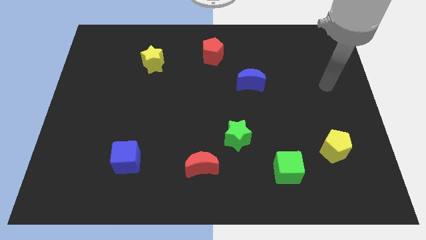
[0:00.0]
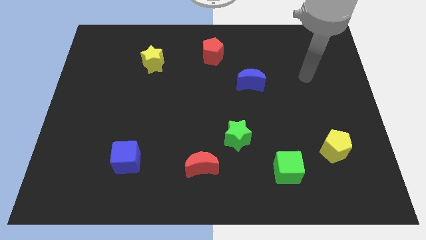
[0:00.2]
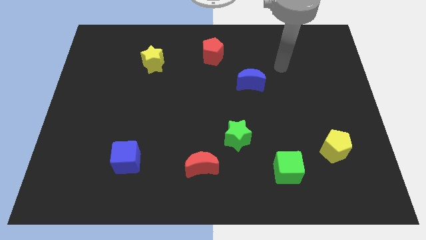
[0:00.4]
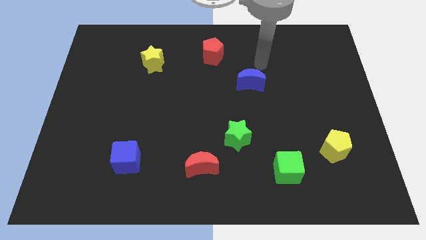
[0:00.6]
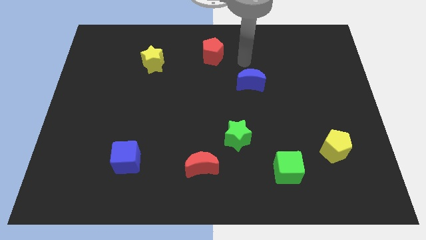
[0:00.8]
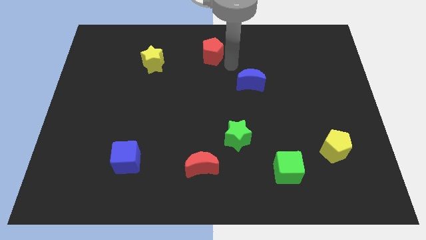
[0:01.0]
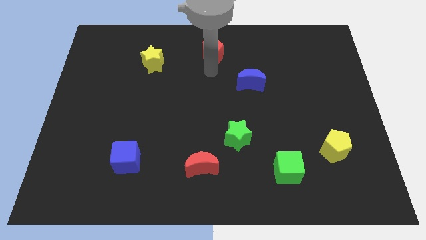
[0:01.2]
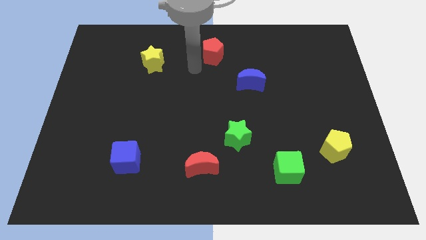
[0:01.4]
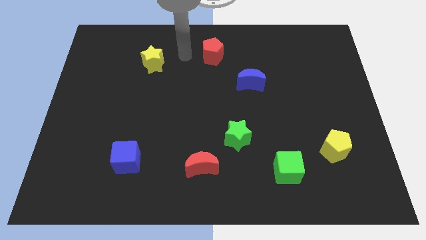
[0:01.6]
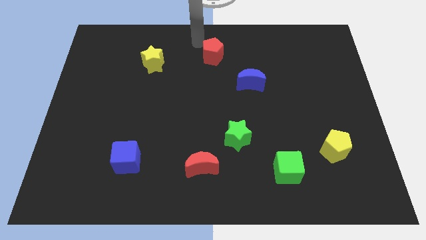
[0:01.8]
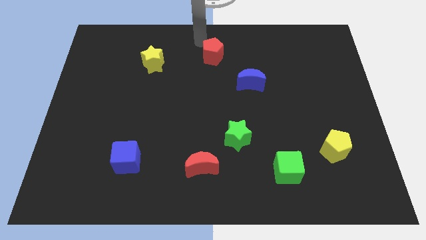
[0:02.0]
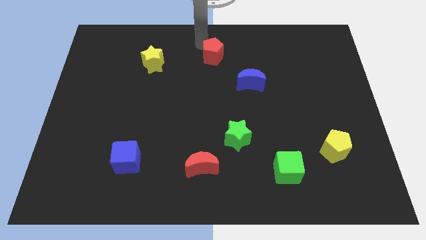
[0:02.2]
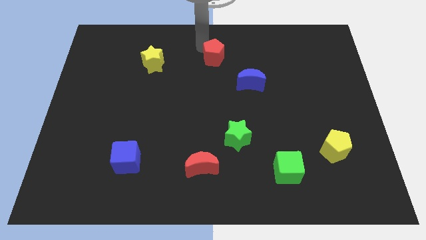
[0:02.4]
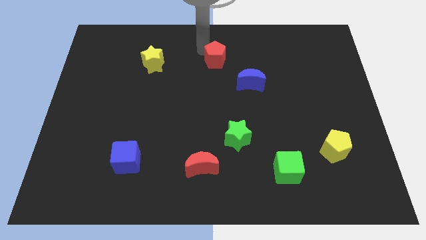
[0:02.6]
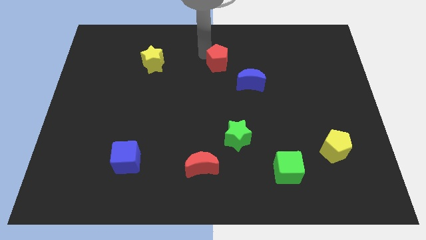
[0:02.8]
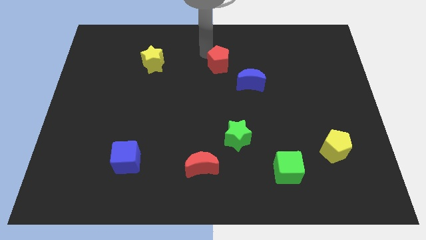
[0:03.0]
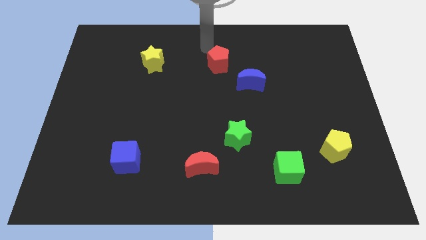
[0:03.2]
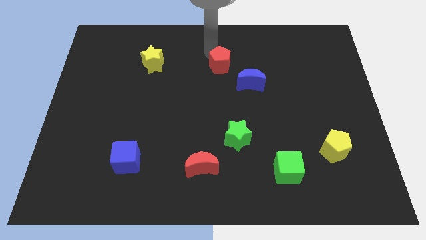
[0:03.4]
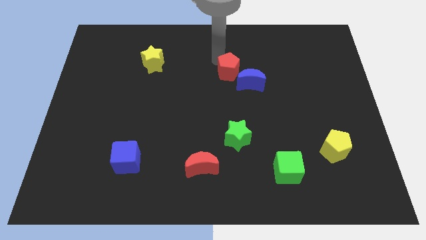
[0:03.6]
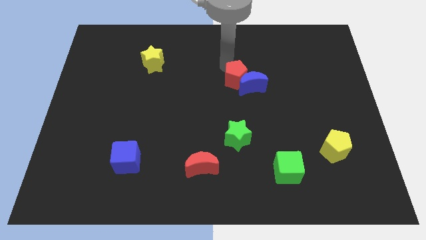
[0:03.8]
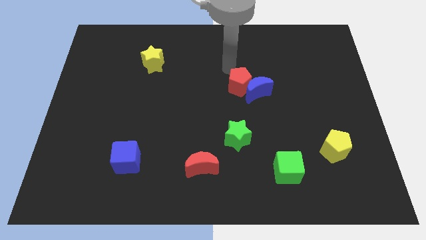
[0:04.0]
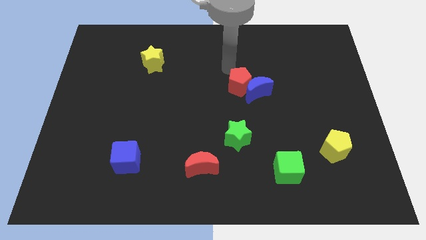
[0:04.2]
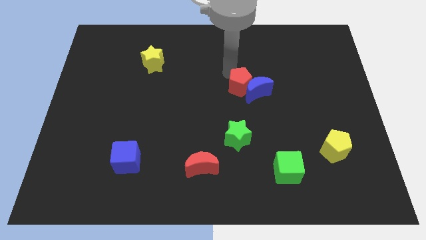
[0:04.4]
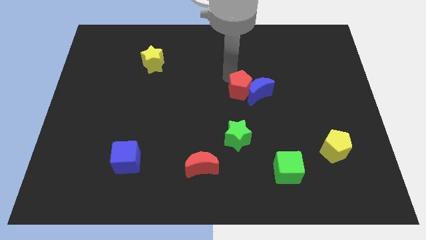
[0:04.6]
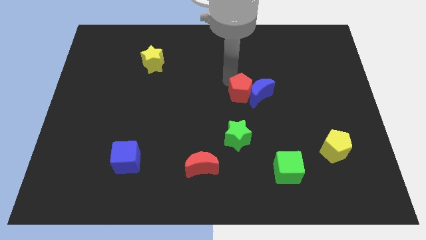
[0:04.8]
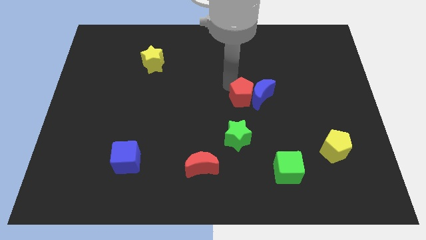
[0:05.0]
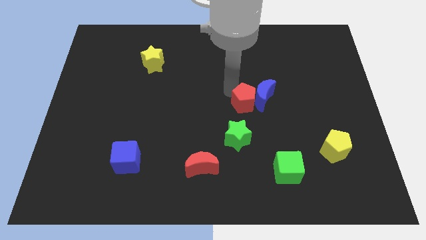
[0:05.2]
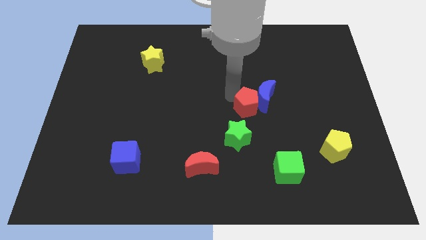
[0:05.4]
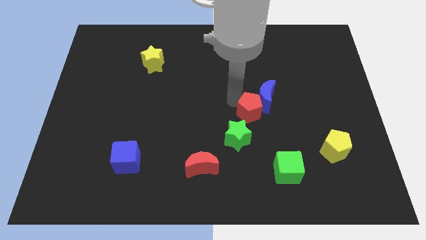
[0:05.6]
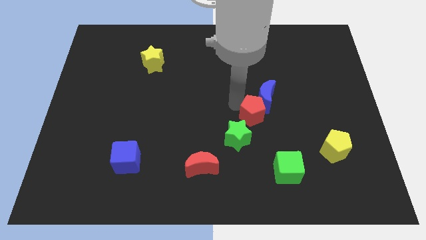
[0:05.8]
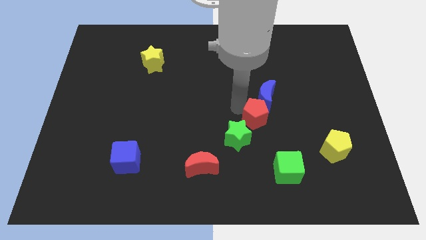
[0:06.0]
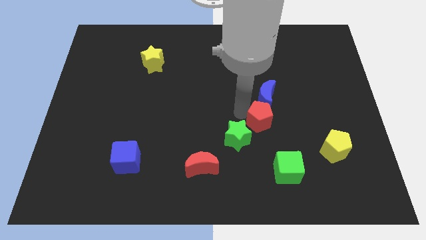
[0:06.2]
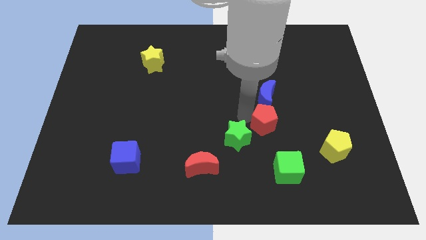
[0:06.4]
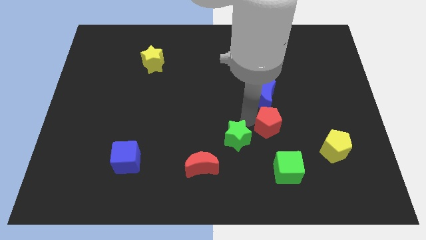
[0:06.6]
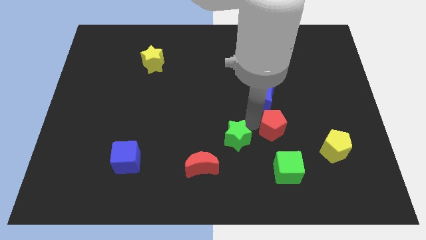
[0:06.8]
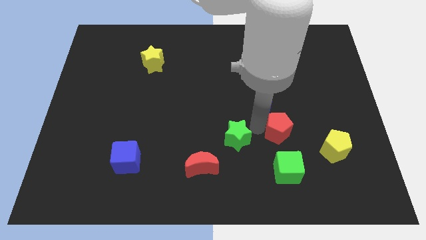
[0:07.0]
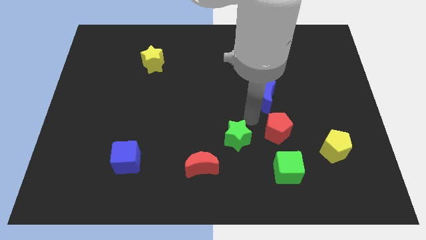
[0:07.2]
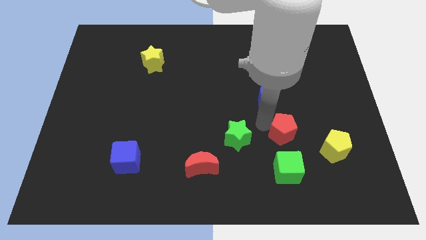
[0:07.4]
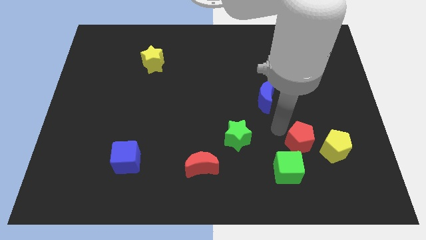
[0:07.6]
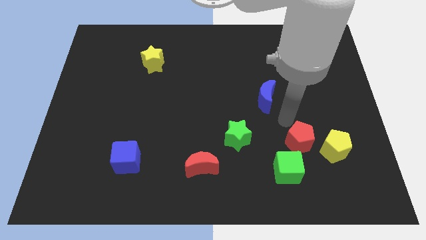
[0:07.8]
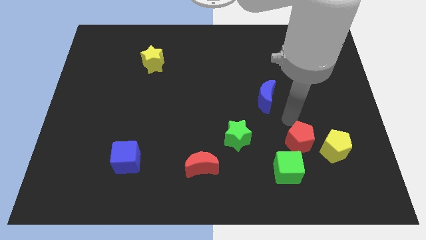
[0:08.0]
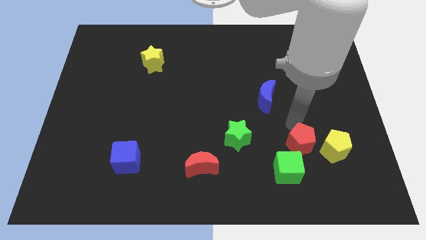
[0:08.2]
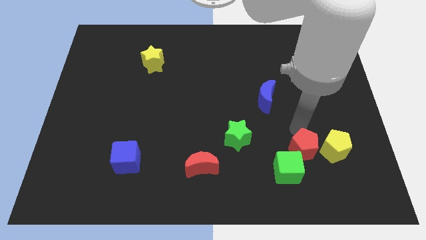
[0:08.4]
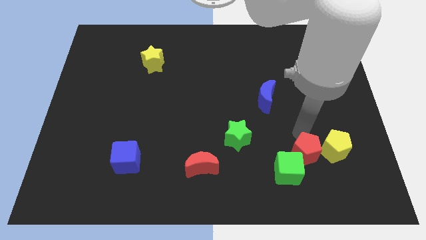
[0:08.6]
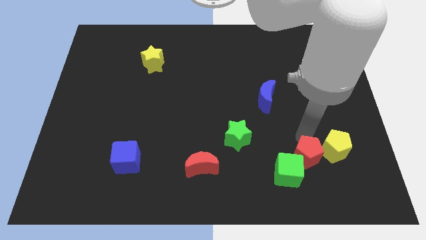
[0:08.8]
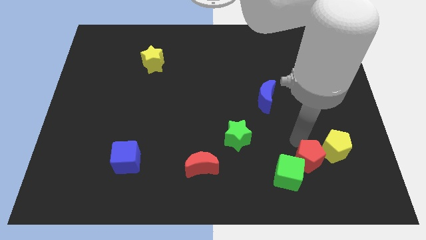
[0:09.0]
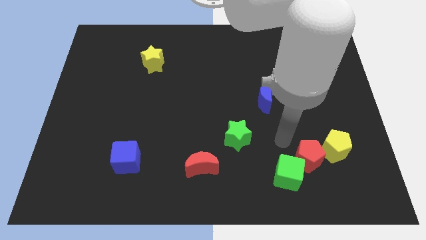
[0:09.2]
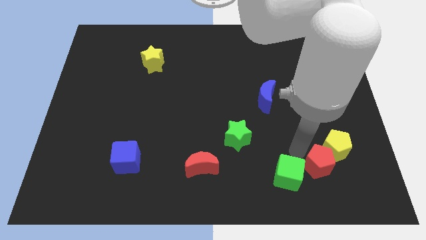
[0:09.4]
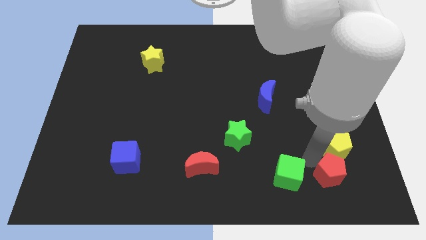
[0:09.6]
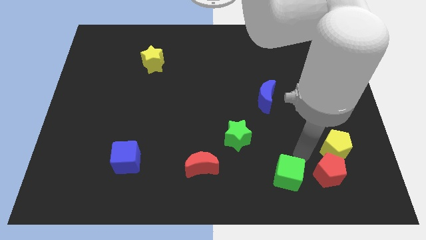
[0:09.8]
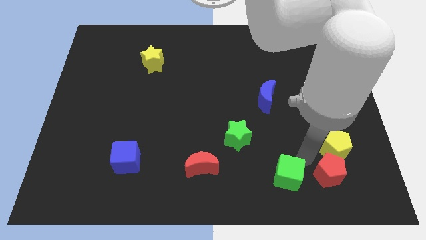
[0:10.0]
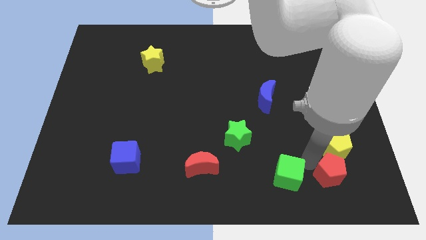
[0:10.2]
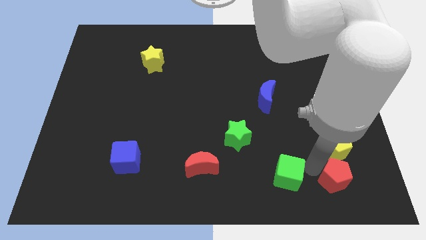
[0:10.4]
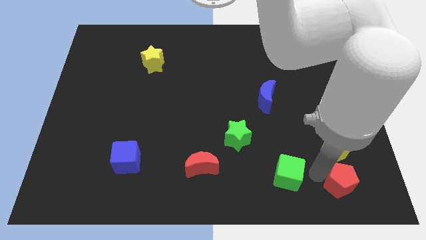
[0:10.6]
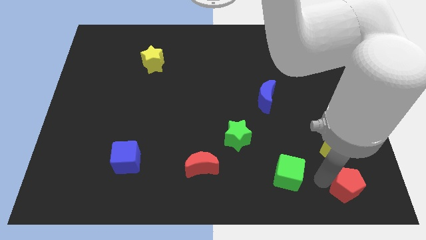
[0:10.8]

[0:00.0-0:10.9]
put the red pentagon to the bottom right

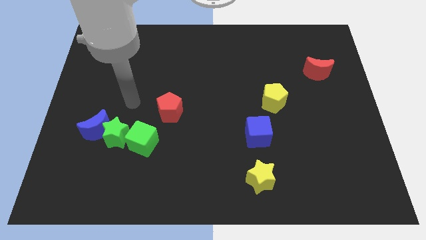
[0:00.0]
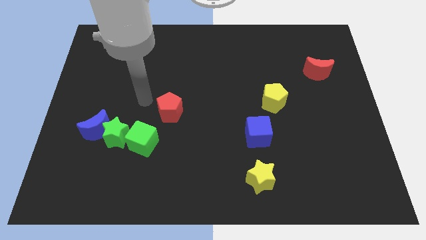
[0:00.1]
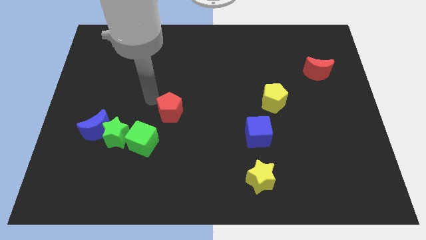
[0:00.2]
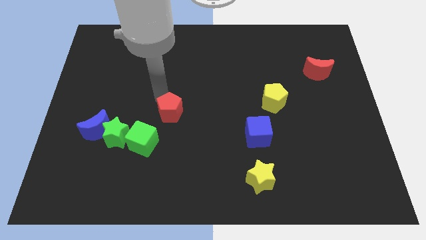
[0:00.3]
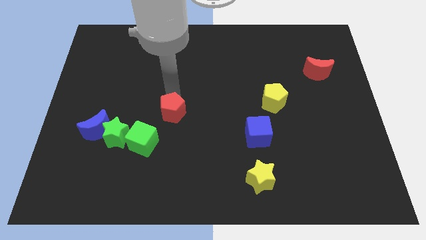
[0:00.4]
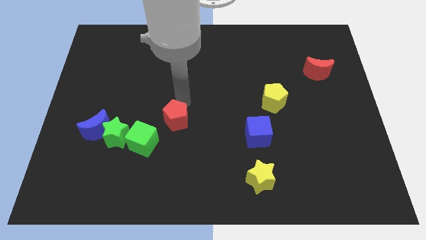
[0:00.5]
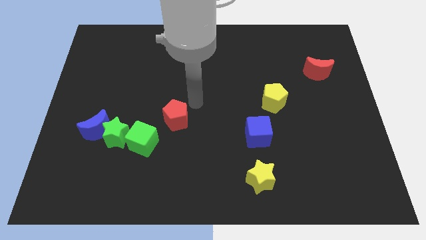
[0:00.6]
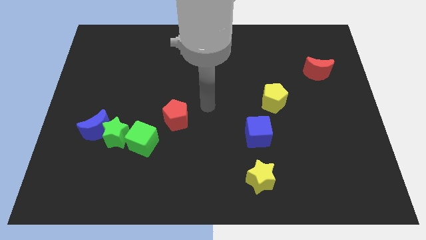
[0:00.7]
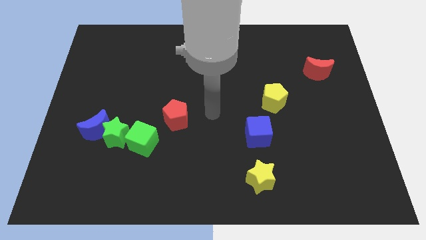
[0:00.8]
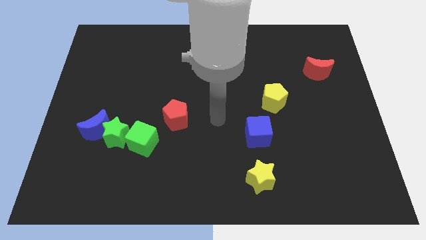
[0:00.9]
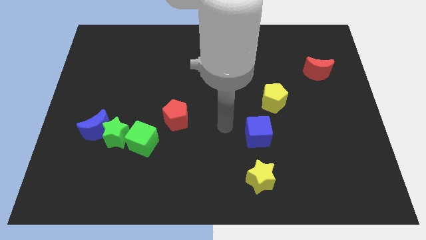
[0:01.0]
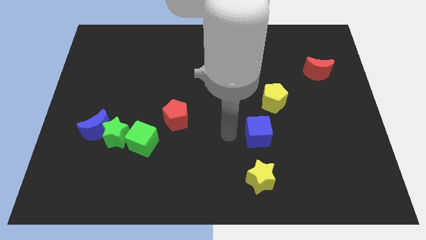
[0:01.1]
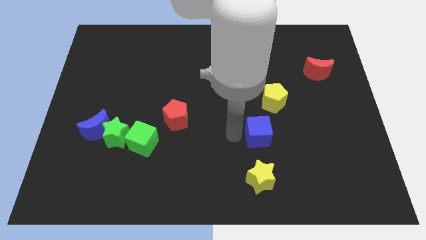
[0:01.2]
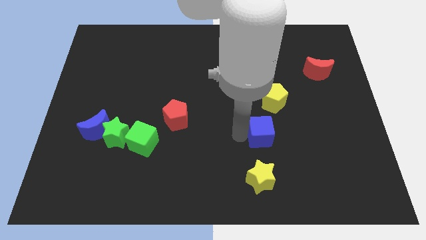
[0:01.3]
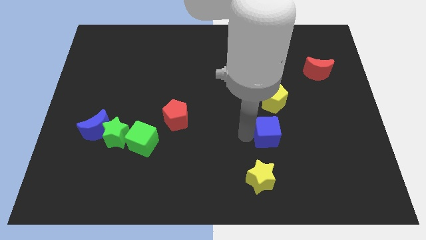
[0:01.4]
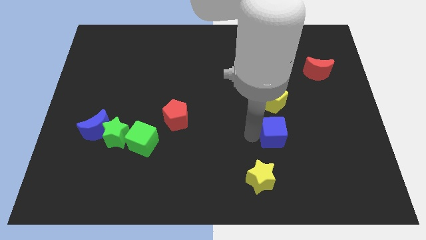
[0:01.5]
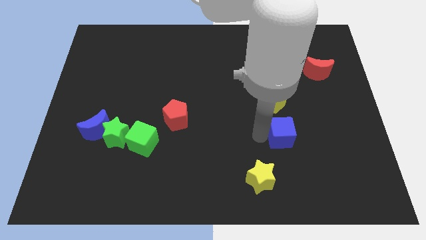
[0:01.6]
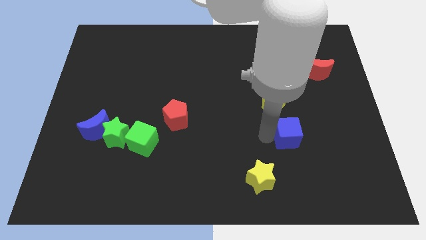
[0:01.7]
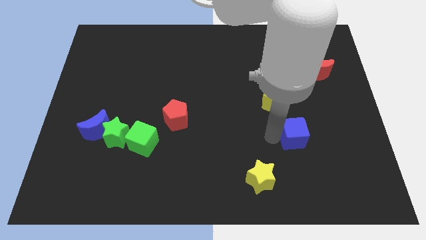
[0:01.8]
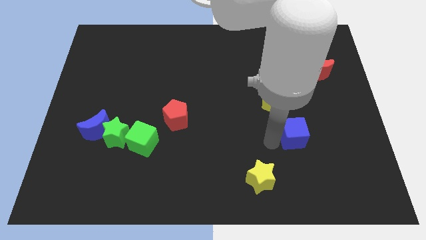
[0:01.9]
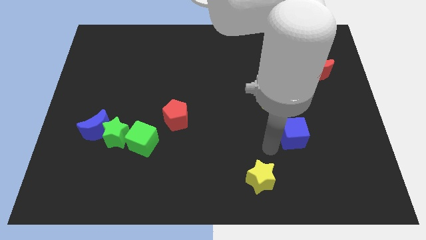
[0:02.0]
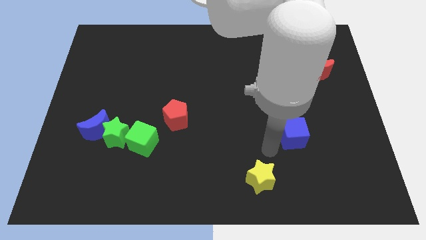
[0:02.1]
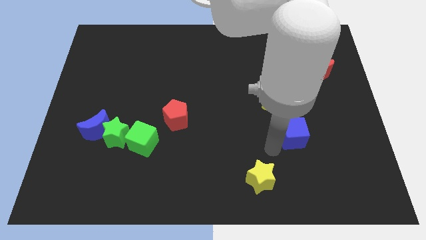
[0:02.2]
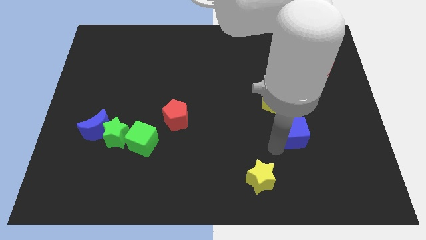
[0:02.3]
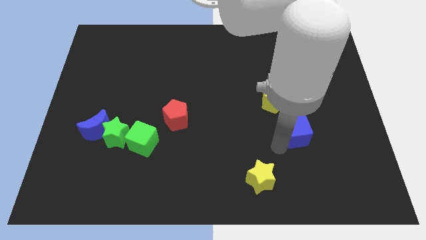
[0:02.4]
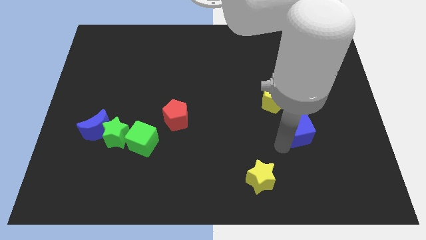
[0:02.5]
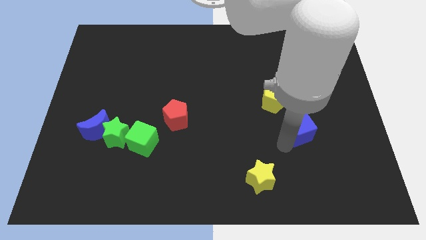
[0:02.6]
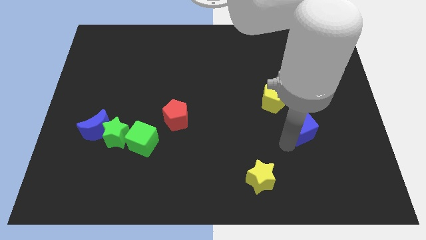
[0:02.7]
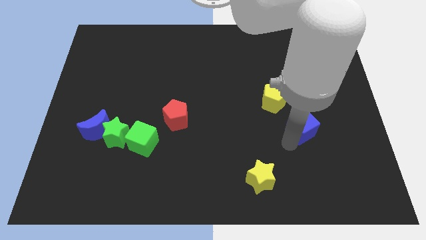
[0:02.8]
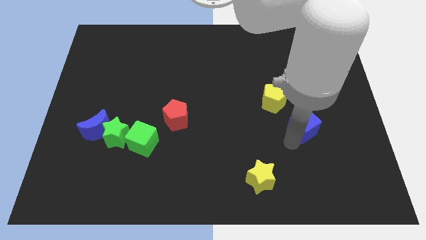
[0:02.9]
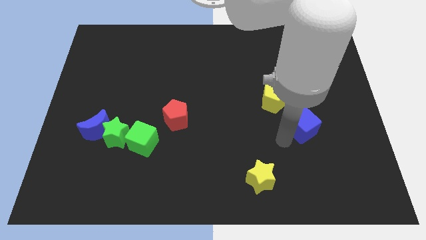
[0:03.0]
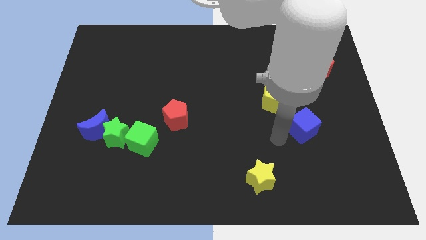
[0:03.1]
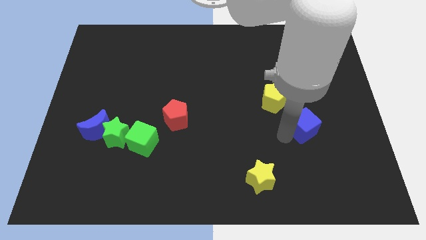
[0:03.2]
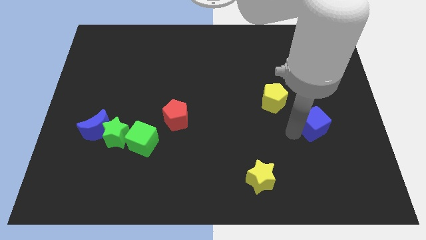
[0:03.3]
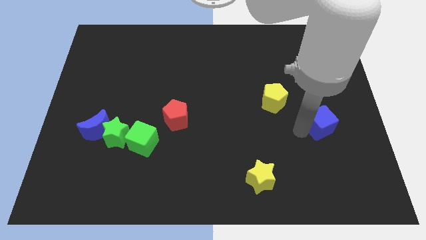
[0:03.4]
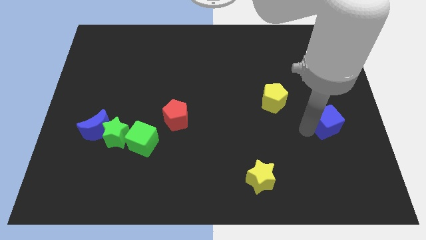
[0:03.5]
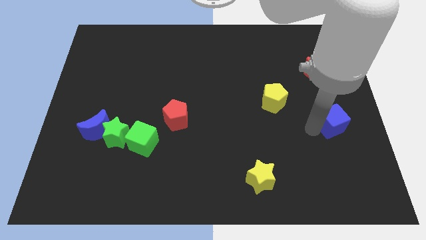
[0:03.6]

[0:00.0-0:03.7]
put the blue cube to the right side
